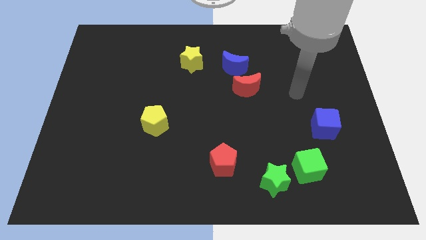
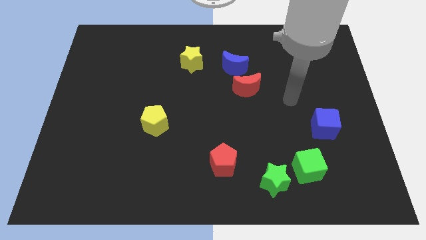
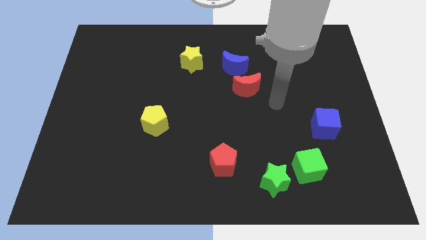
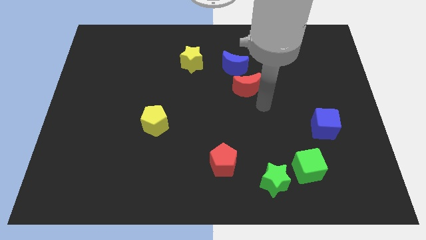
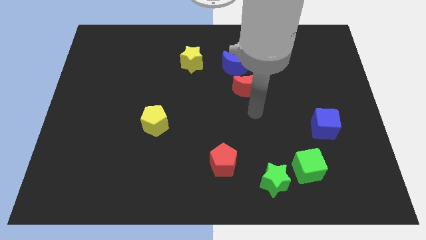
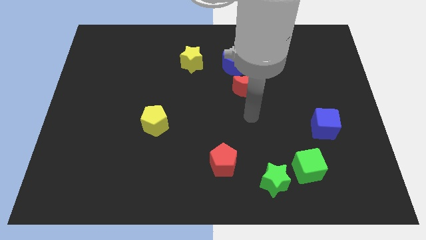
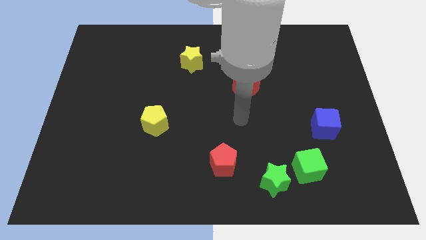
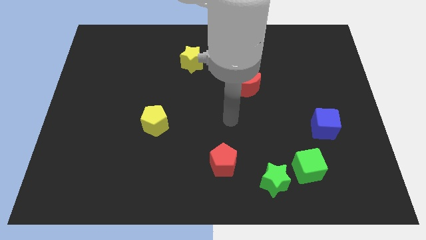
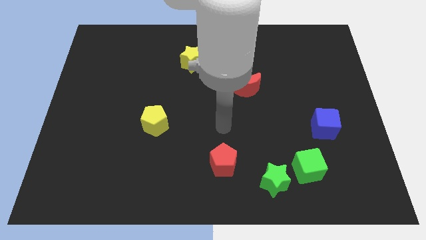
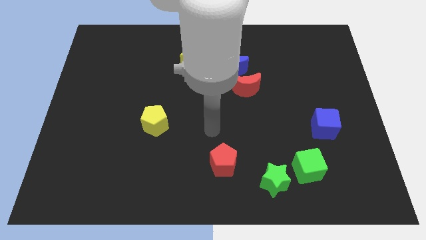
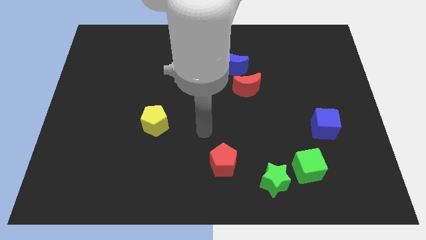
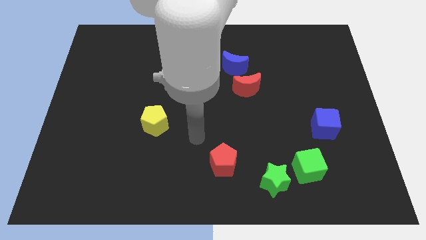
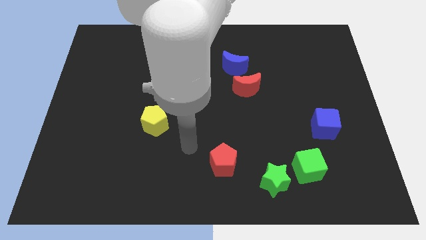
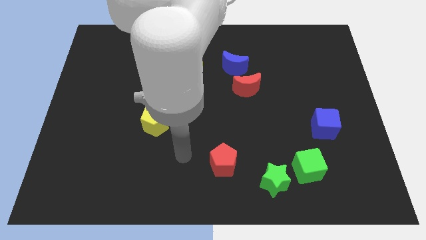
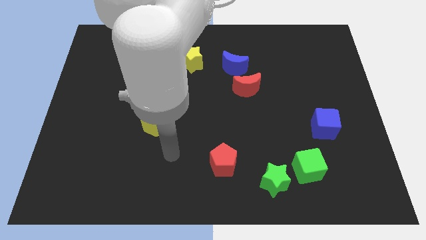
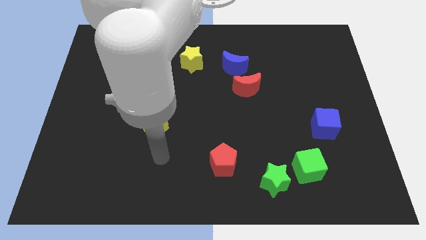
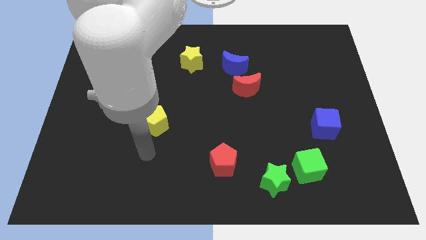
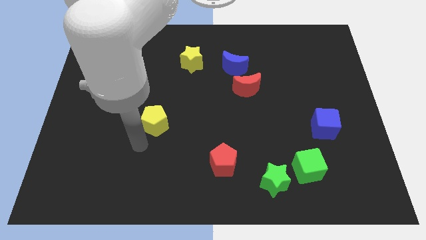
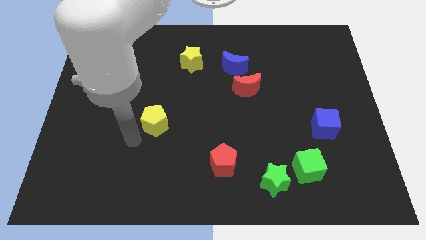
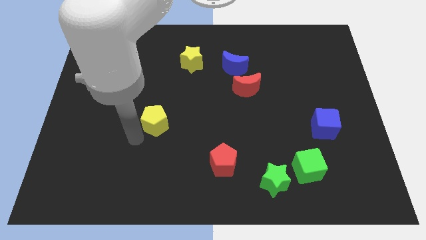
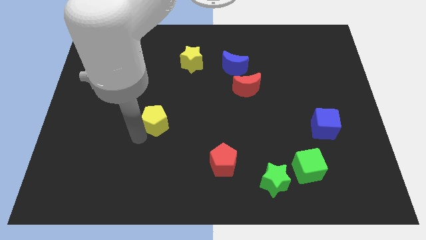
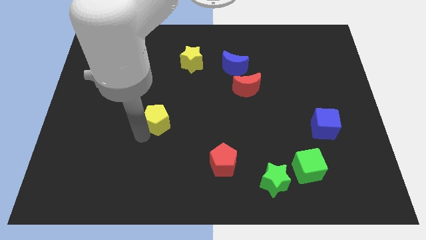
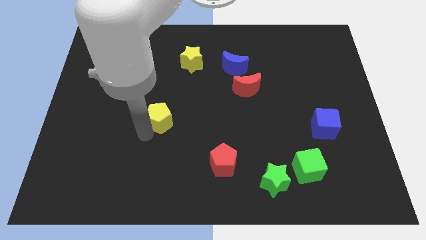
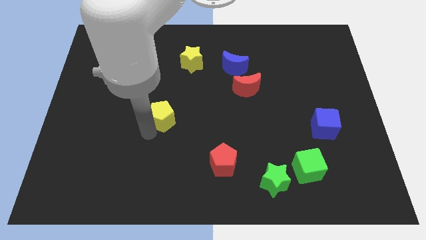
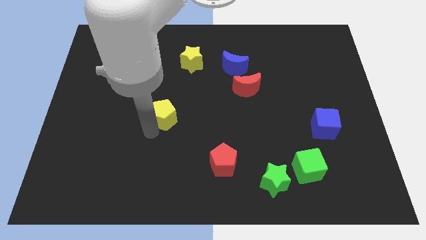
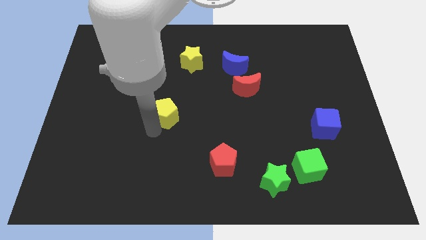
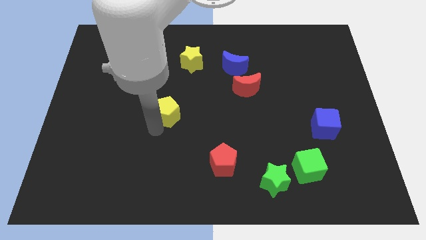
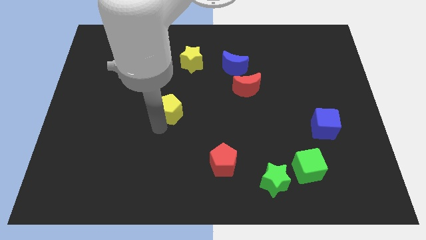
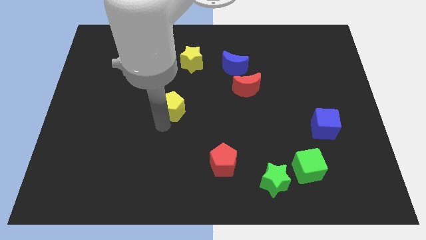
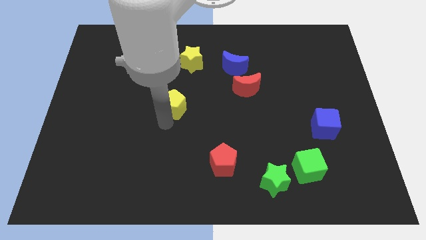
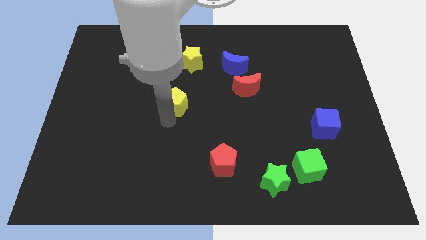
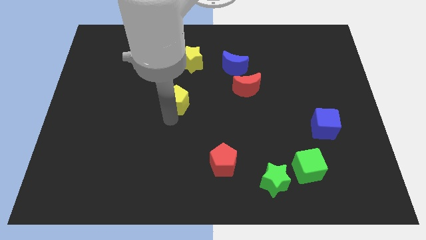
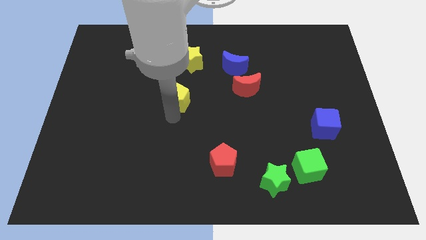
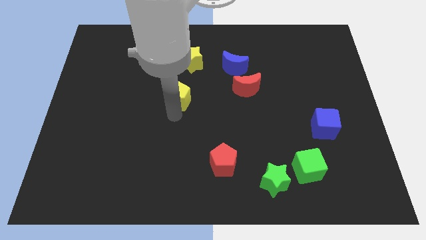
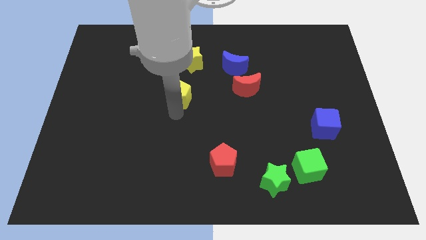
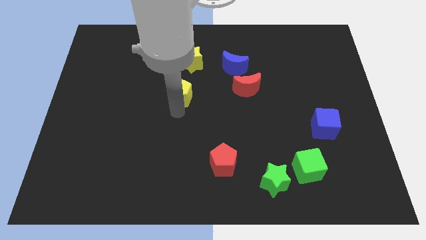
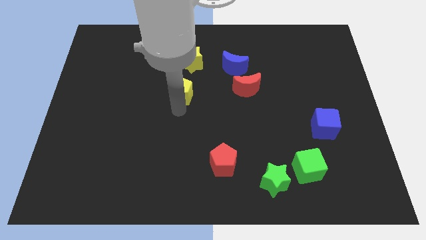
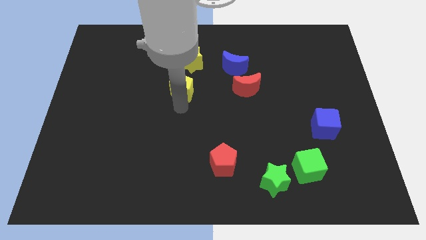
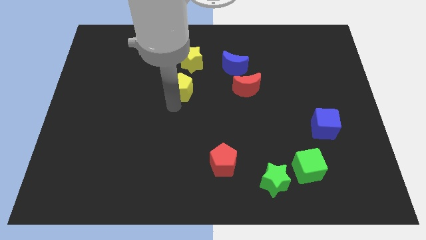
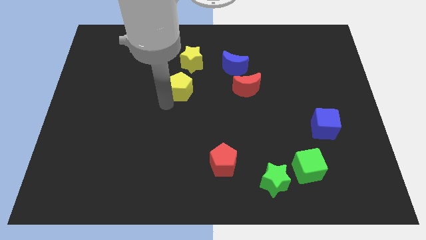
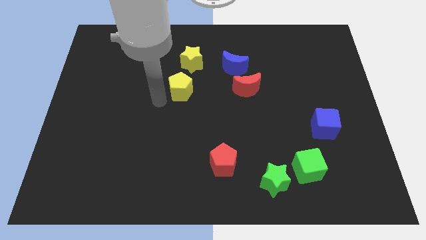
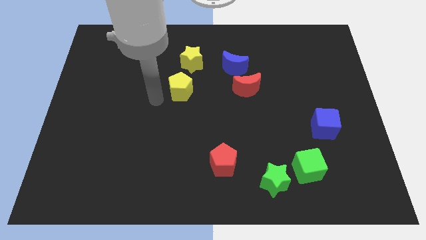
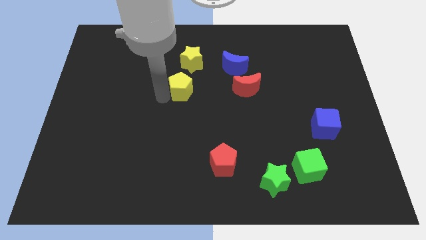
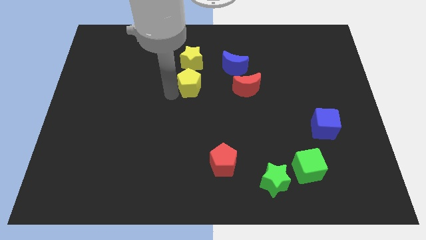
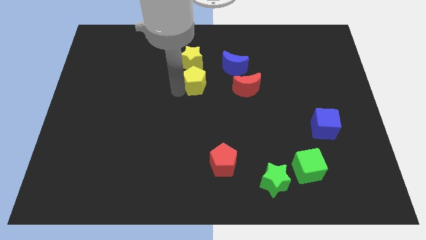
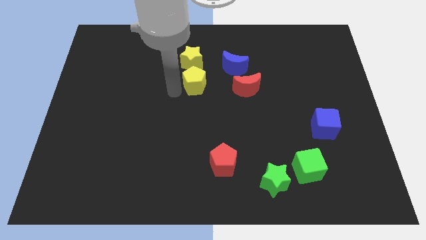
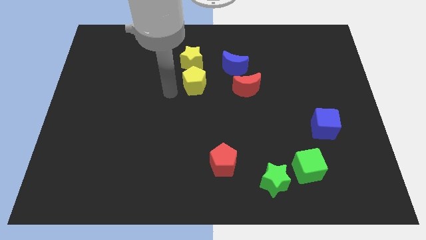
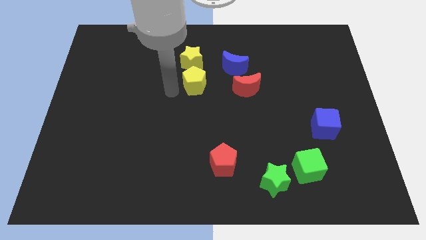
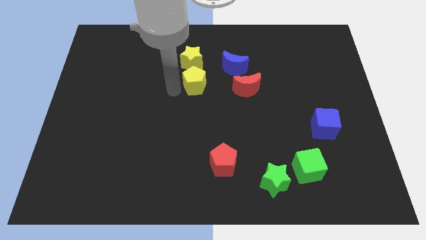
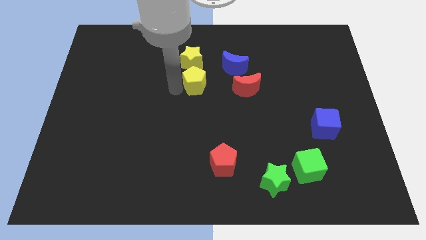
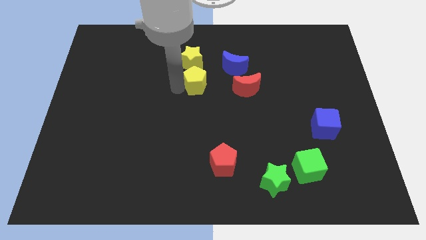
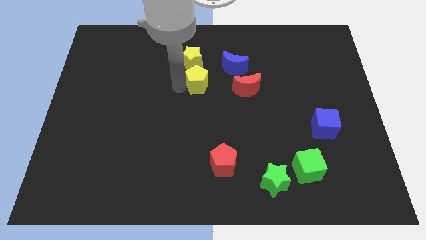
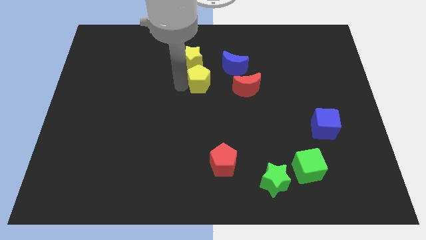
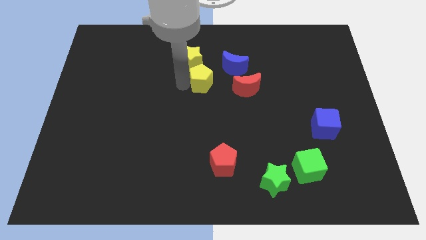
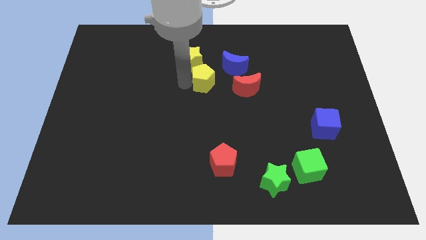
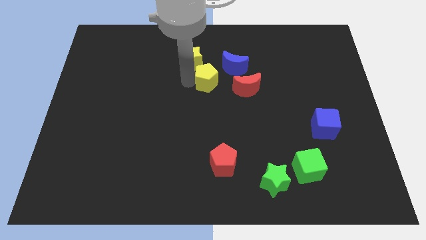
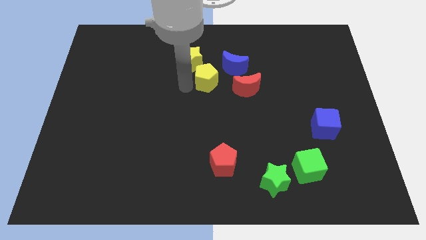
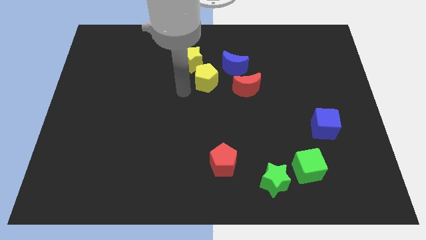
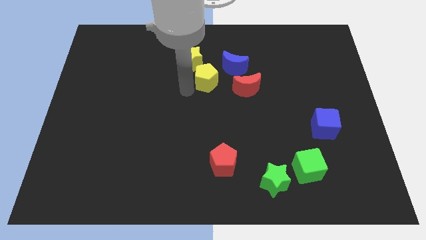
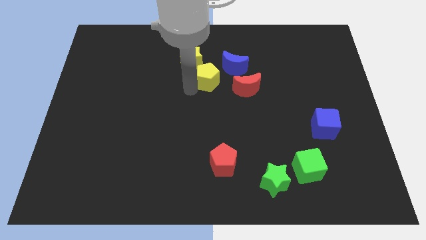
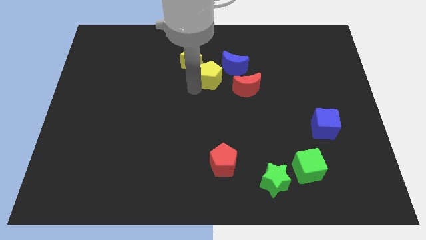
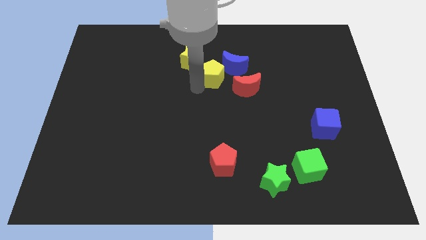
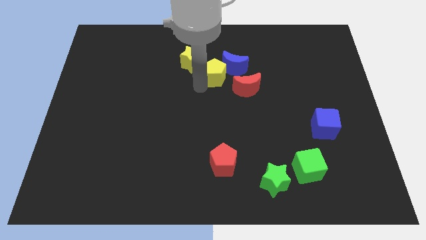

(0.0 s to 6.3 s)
push the yellow pentagon next to the blue moon

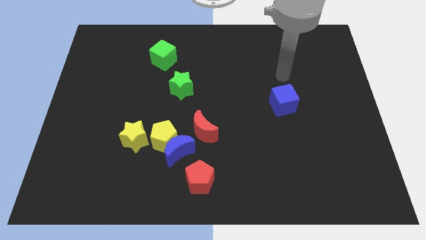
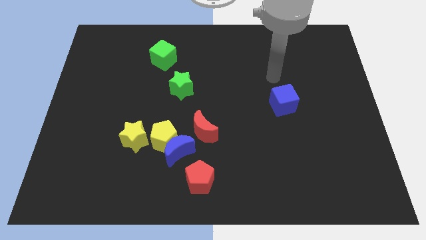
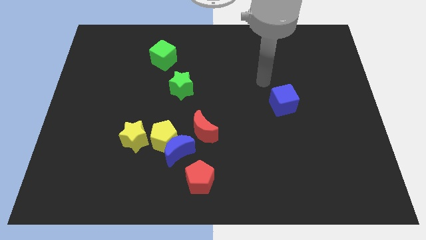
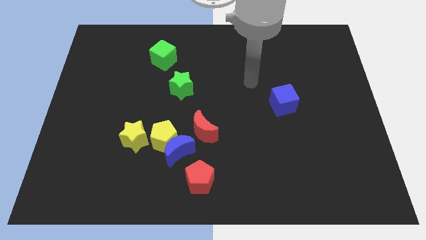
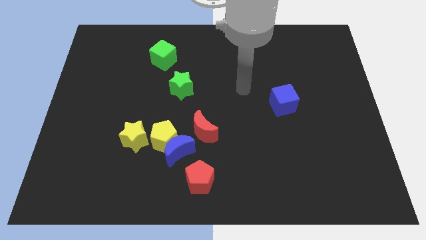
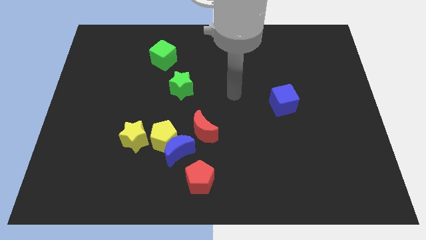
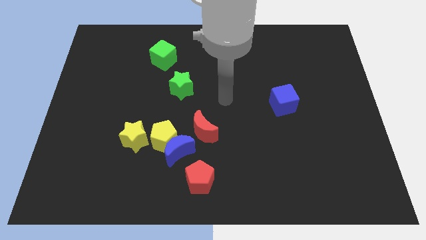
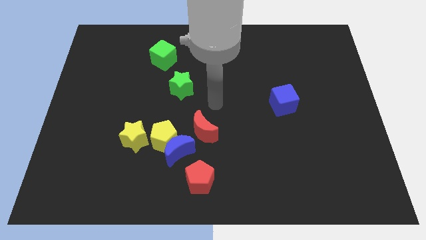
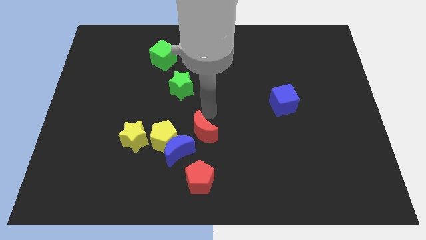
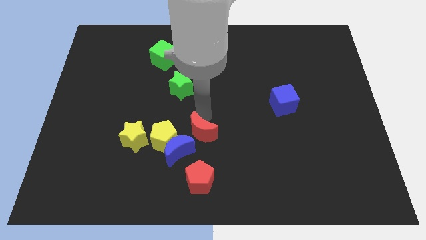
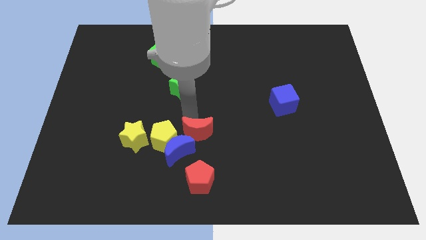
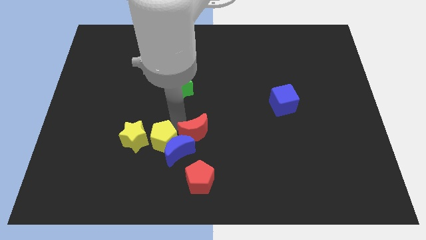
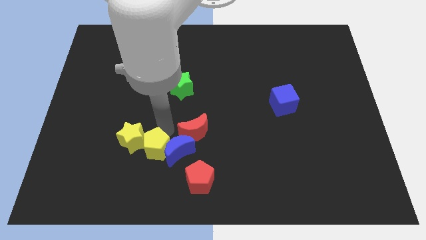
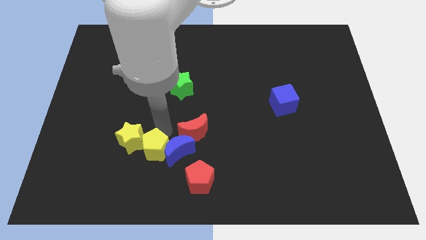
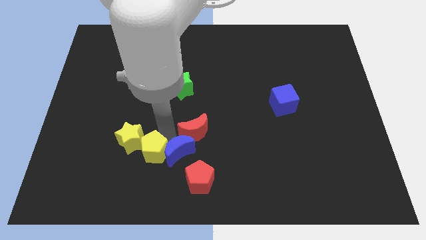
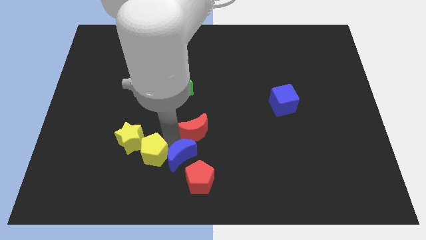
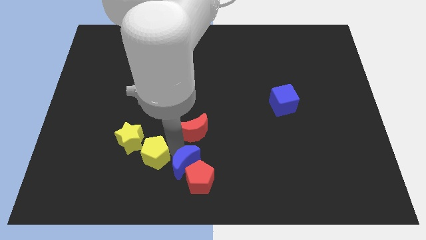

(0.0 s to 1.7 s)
put the blue moon to the red pentagon
